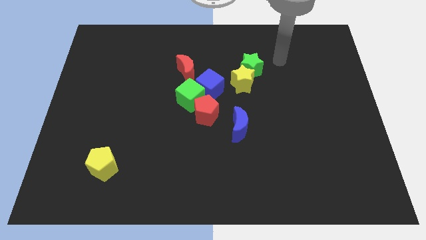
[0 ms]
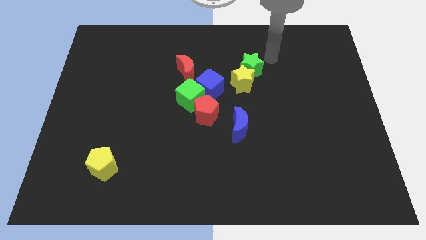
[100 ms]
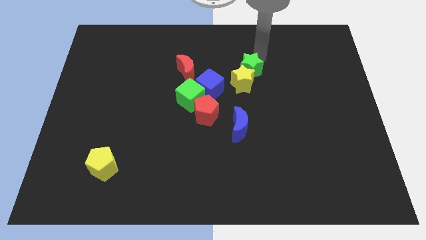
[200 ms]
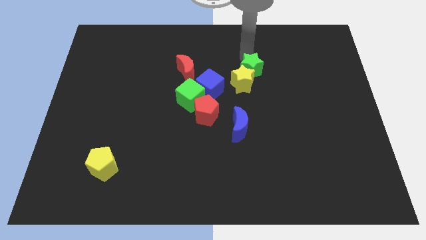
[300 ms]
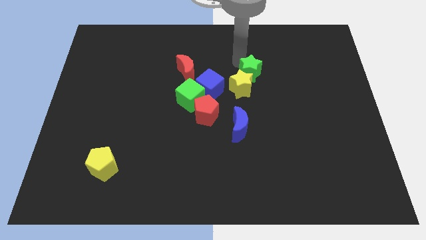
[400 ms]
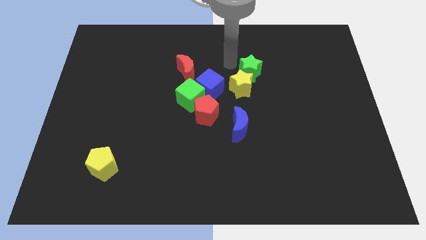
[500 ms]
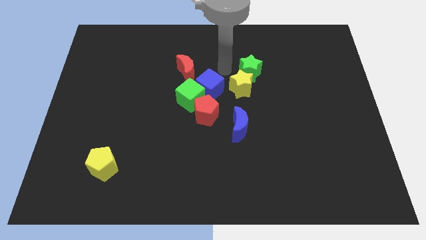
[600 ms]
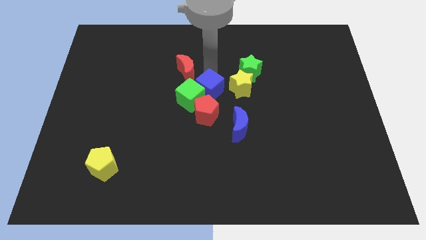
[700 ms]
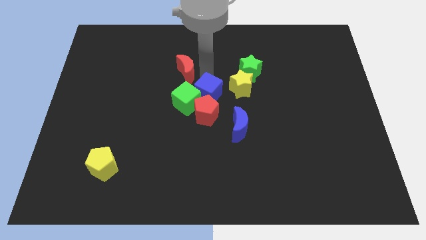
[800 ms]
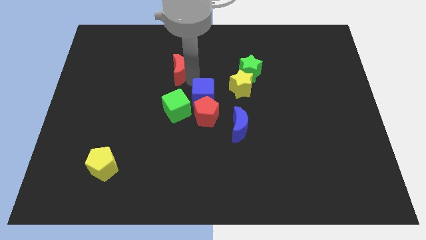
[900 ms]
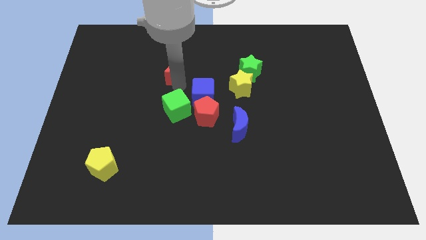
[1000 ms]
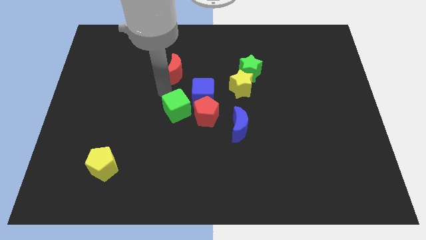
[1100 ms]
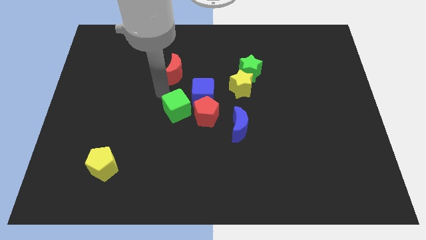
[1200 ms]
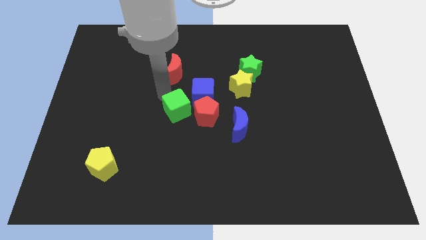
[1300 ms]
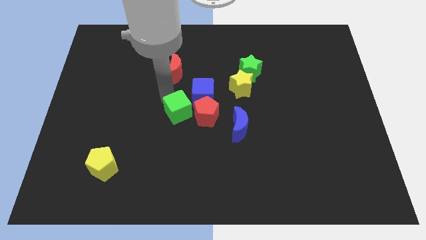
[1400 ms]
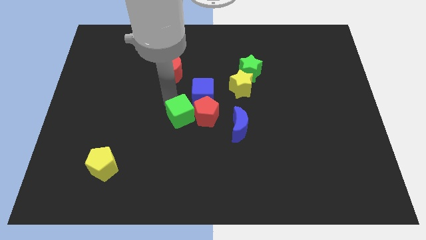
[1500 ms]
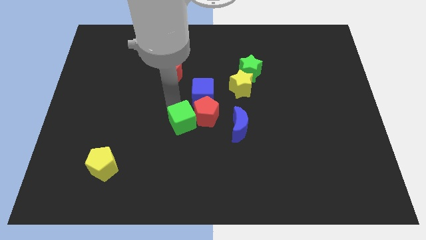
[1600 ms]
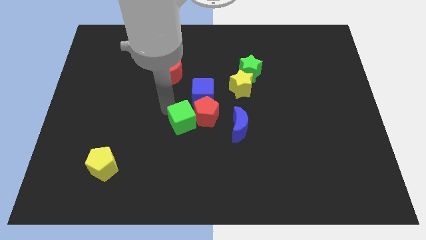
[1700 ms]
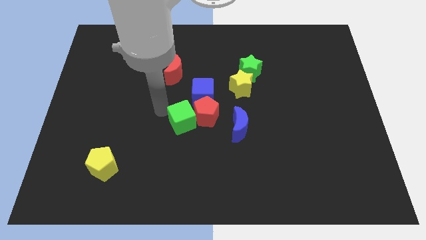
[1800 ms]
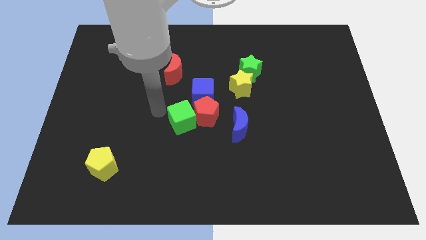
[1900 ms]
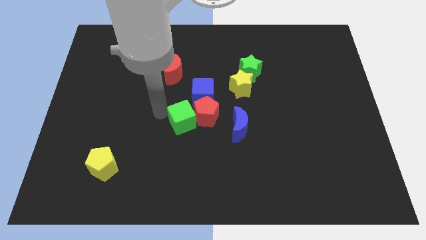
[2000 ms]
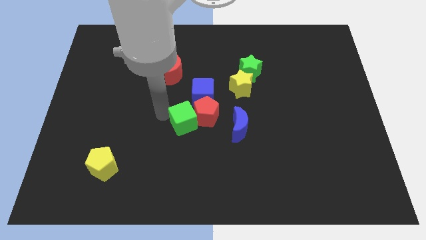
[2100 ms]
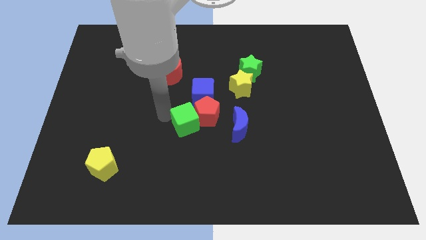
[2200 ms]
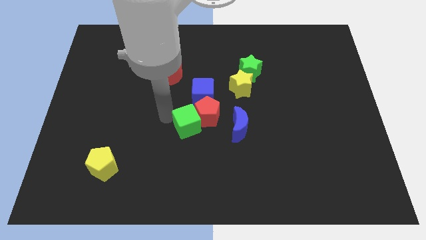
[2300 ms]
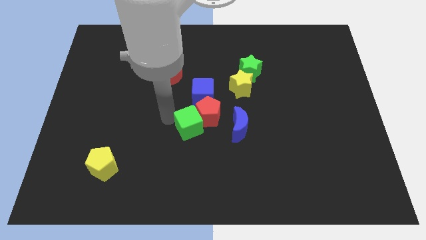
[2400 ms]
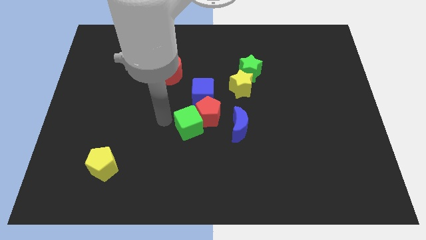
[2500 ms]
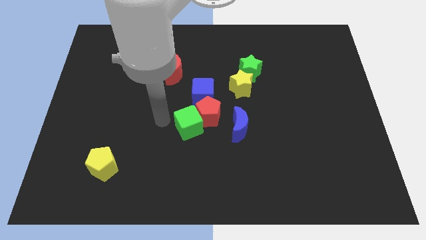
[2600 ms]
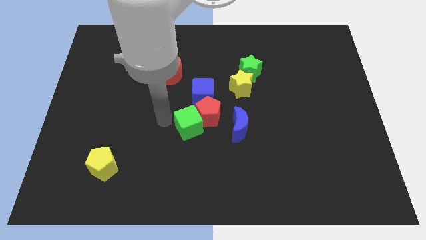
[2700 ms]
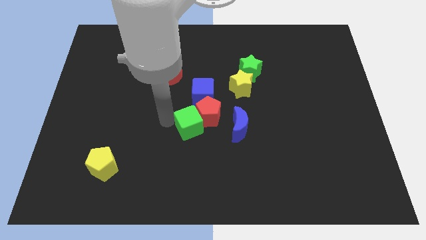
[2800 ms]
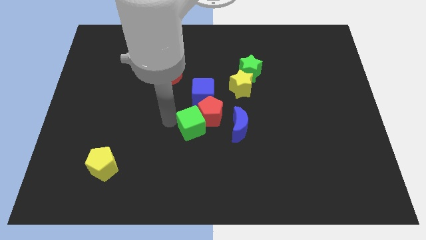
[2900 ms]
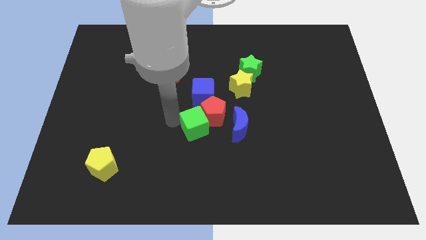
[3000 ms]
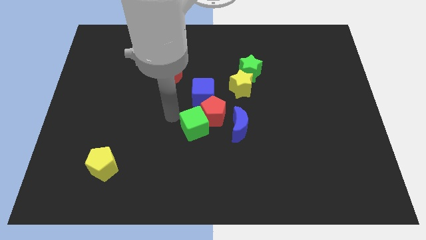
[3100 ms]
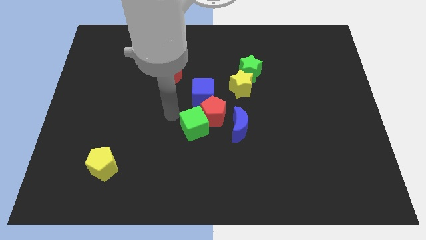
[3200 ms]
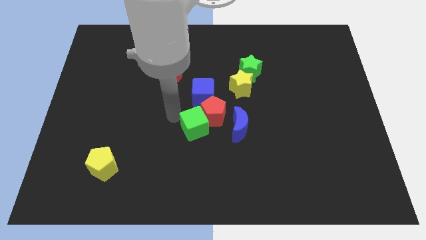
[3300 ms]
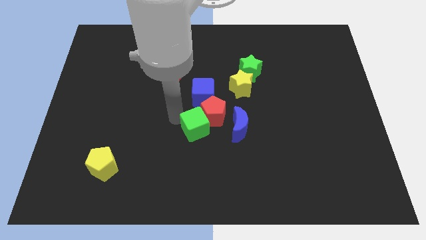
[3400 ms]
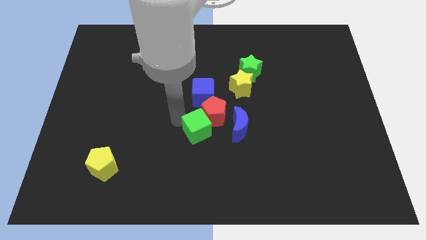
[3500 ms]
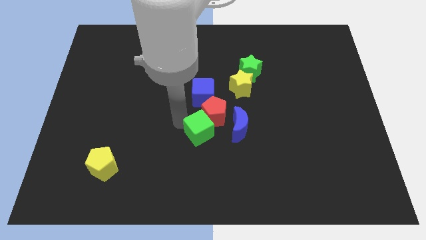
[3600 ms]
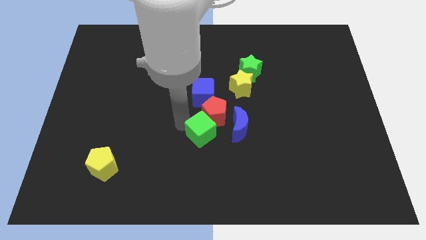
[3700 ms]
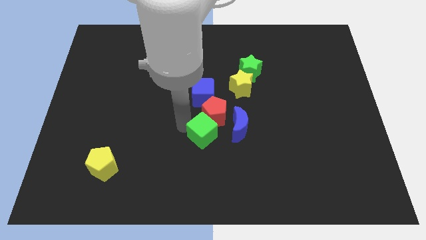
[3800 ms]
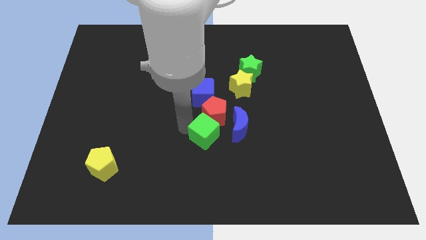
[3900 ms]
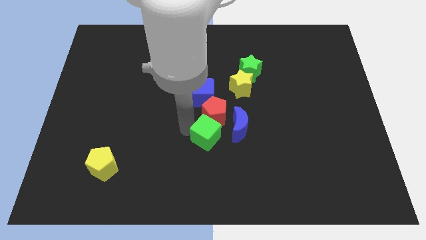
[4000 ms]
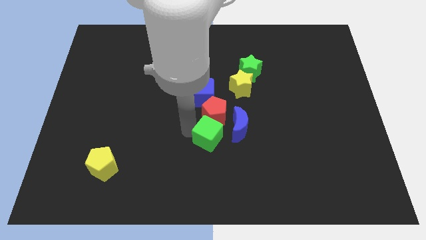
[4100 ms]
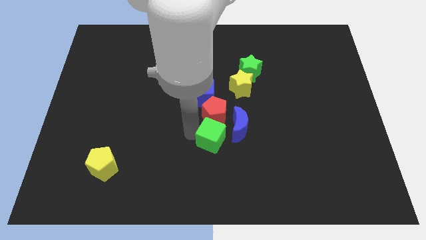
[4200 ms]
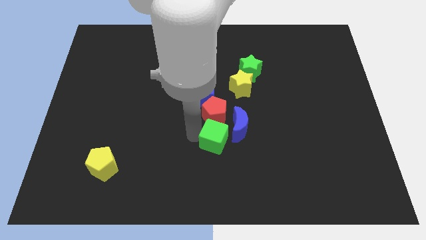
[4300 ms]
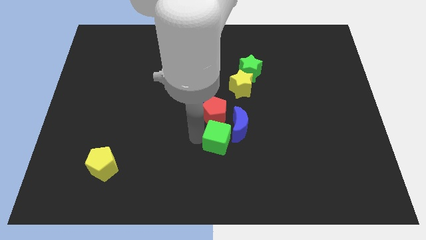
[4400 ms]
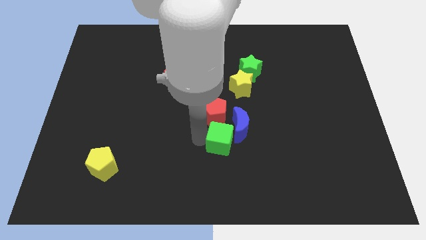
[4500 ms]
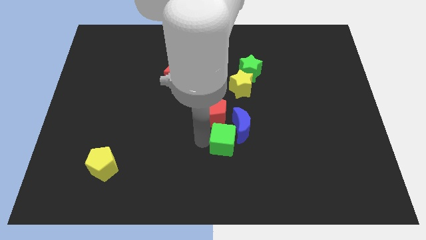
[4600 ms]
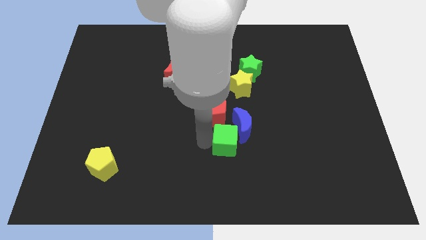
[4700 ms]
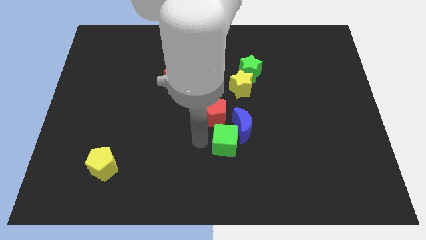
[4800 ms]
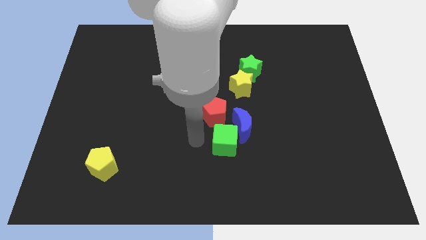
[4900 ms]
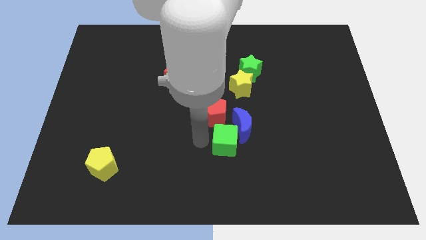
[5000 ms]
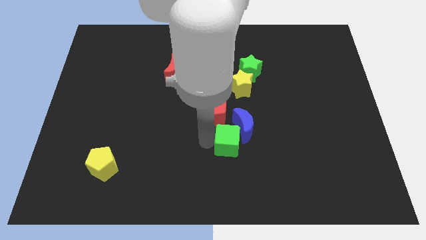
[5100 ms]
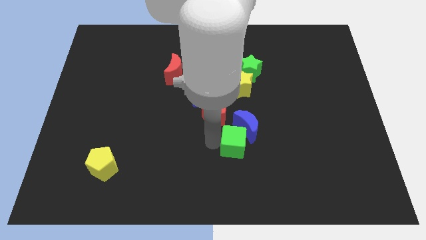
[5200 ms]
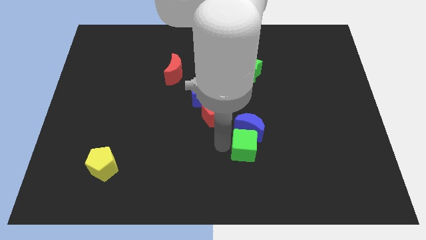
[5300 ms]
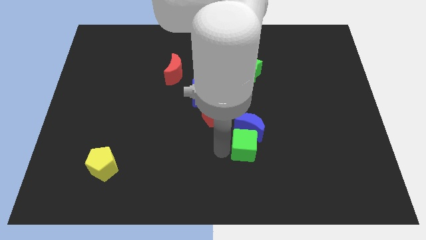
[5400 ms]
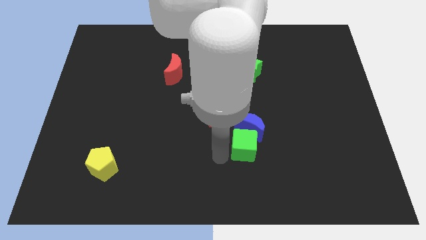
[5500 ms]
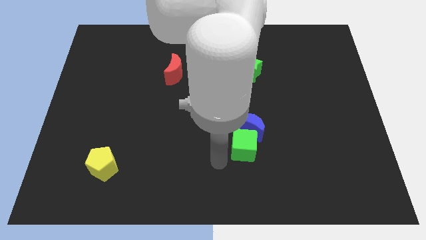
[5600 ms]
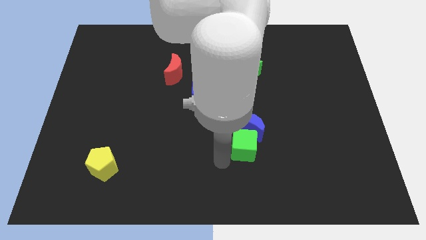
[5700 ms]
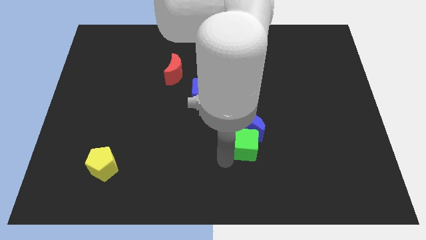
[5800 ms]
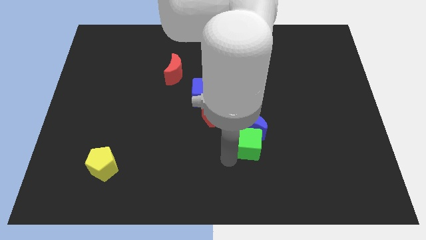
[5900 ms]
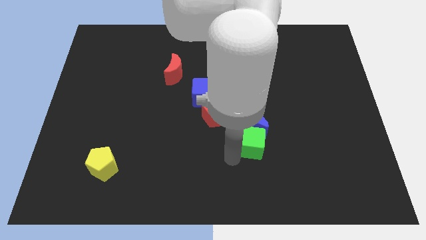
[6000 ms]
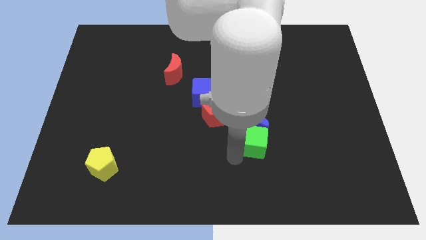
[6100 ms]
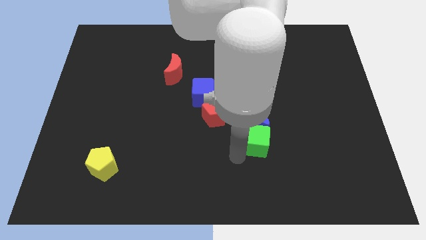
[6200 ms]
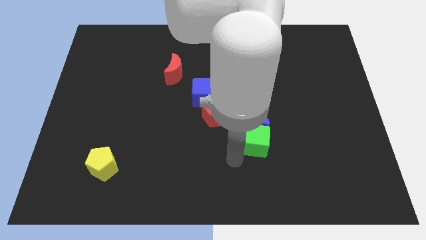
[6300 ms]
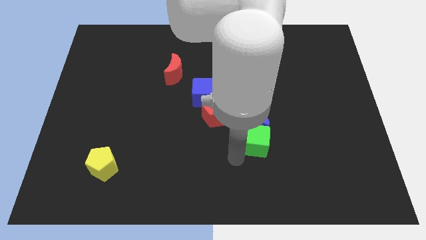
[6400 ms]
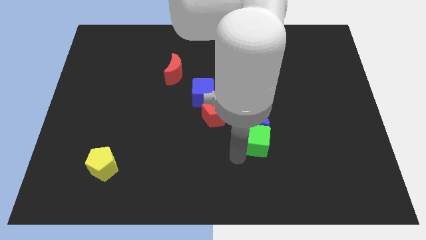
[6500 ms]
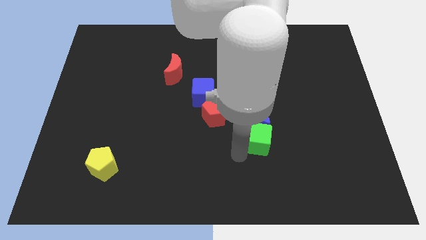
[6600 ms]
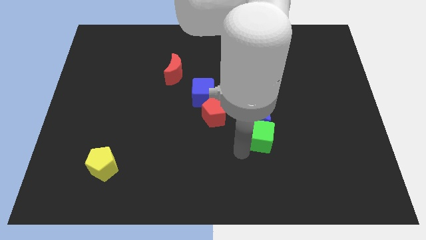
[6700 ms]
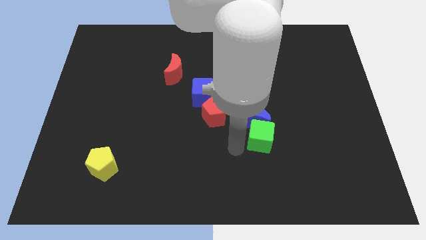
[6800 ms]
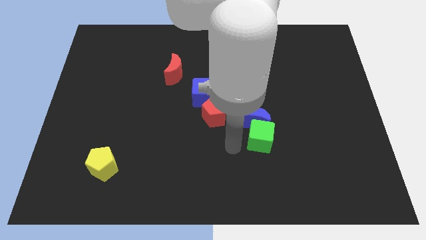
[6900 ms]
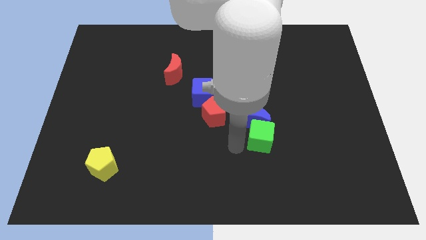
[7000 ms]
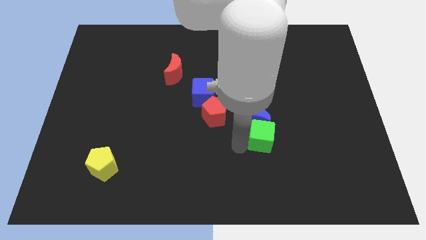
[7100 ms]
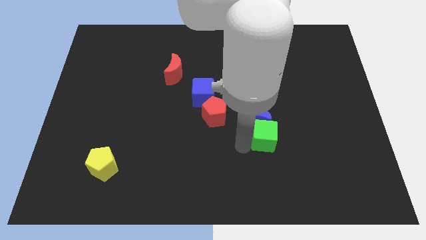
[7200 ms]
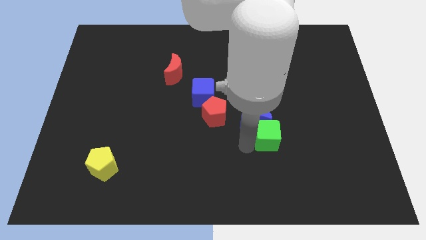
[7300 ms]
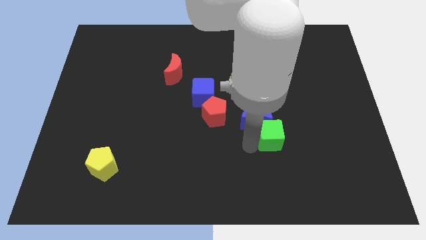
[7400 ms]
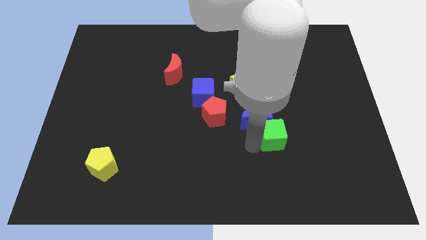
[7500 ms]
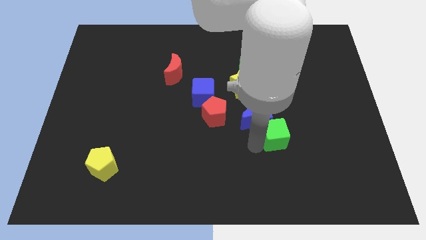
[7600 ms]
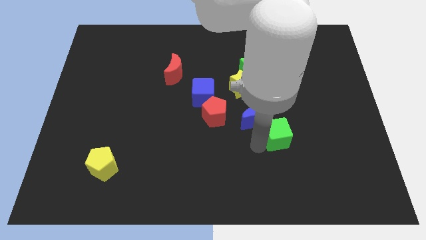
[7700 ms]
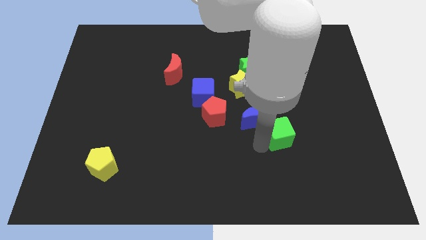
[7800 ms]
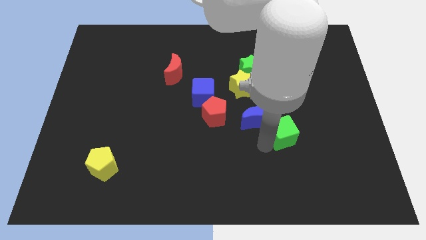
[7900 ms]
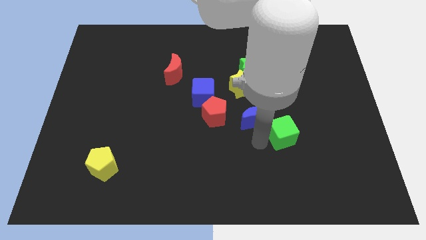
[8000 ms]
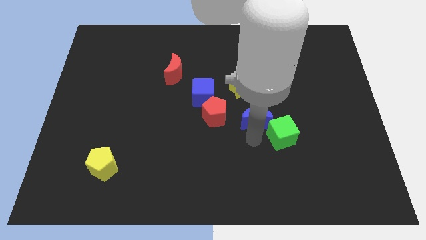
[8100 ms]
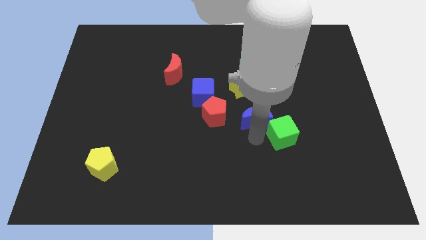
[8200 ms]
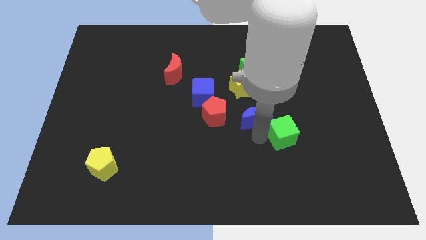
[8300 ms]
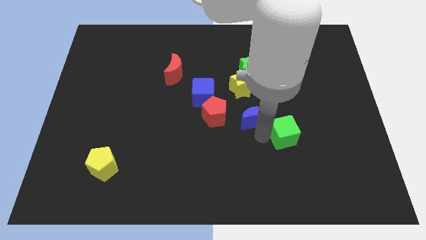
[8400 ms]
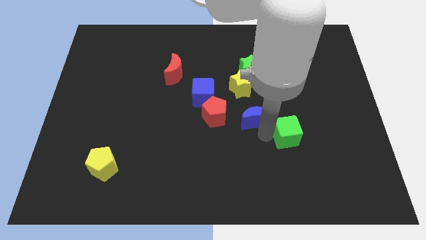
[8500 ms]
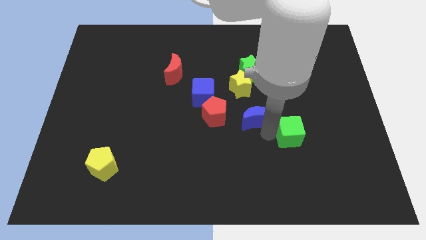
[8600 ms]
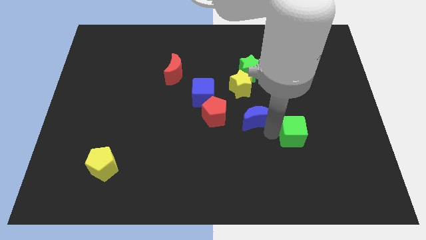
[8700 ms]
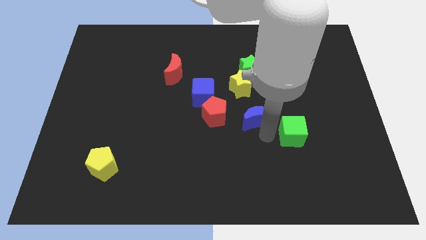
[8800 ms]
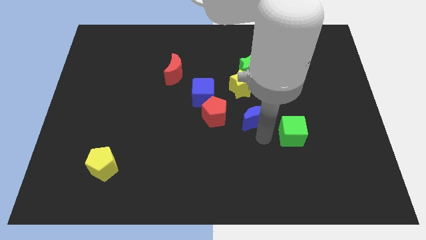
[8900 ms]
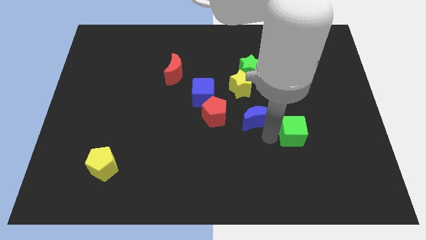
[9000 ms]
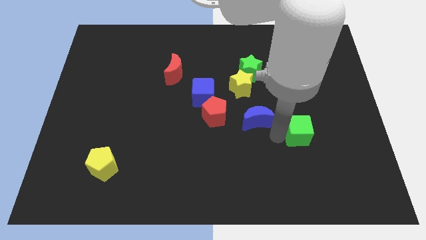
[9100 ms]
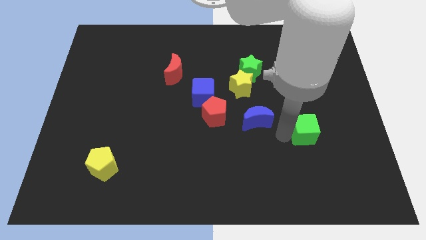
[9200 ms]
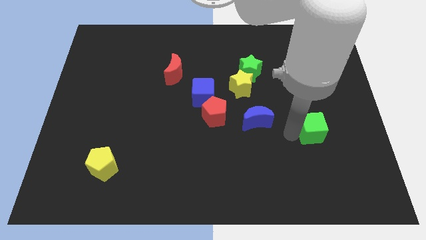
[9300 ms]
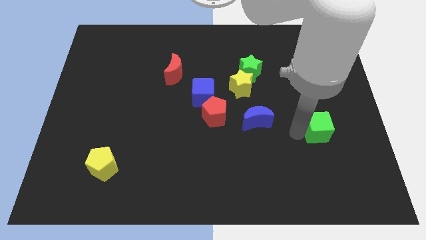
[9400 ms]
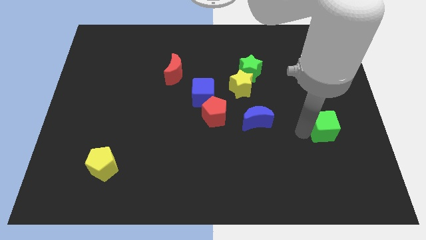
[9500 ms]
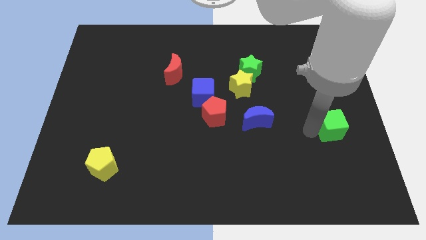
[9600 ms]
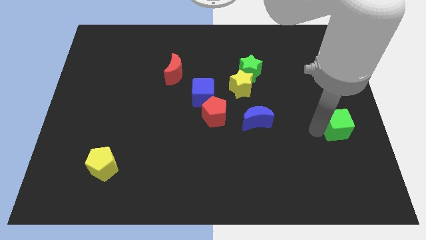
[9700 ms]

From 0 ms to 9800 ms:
move the green cube to the center right
